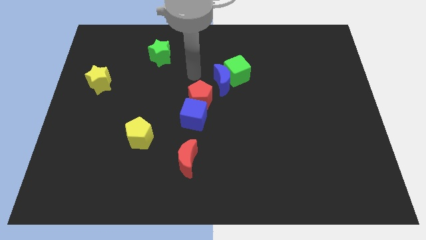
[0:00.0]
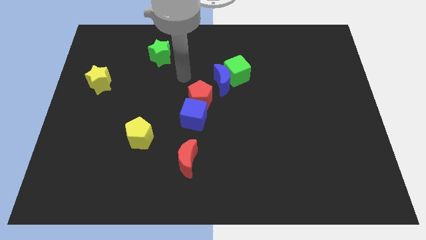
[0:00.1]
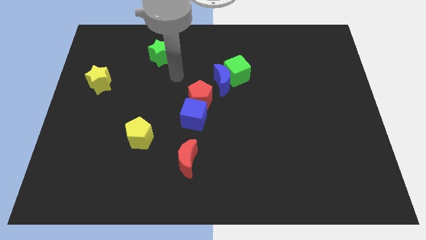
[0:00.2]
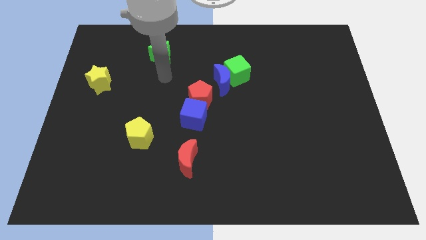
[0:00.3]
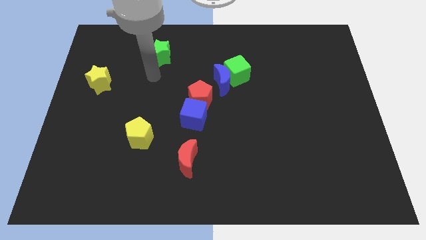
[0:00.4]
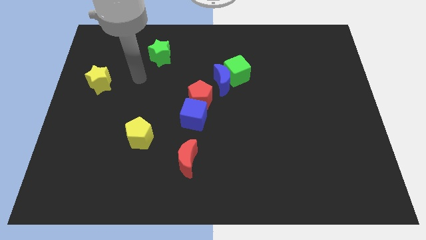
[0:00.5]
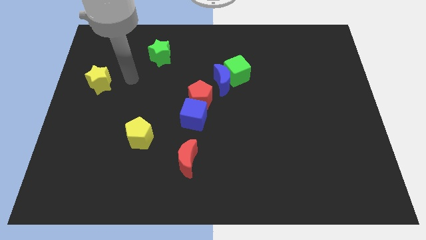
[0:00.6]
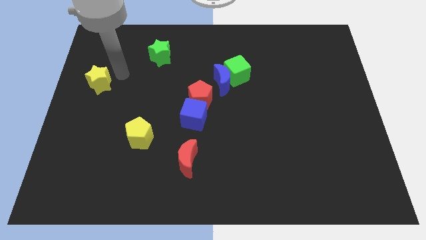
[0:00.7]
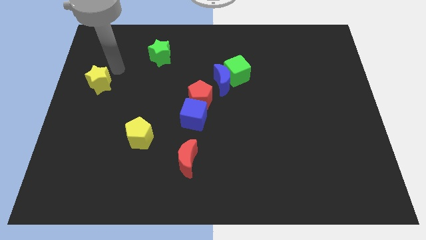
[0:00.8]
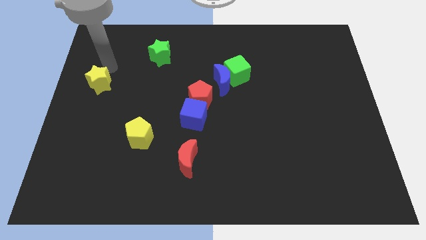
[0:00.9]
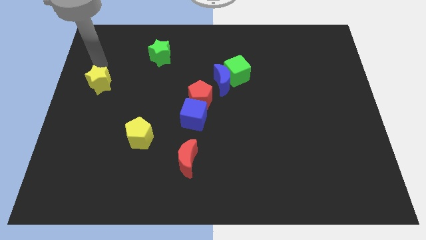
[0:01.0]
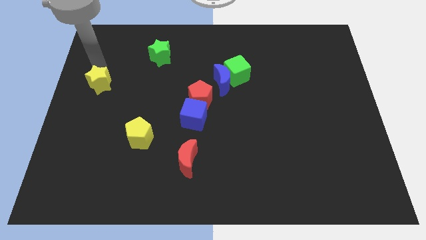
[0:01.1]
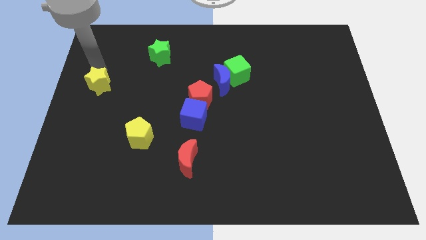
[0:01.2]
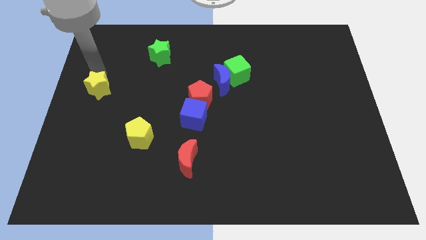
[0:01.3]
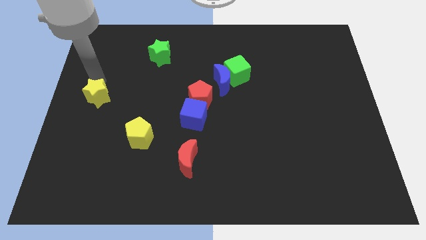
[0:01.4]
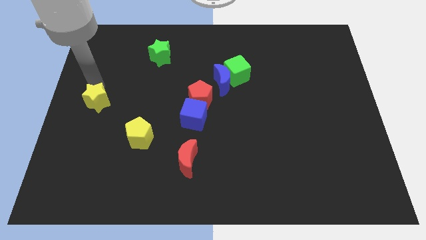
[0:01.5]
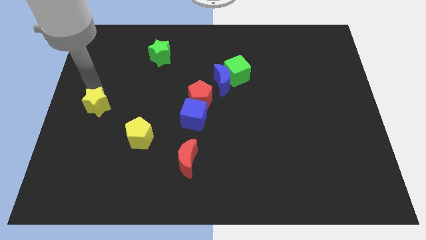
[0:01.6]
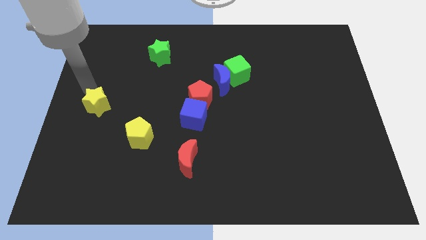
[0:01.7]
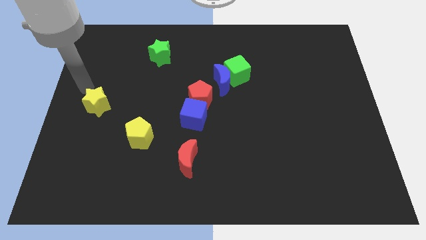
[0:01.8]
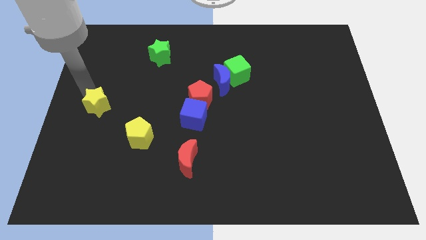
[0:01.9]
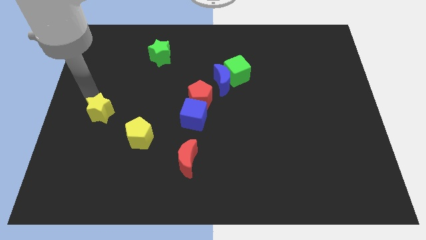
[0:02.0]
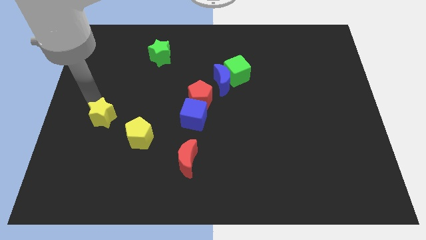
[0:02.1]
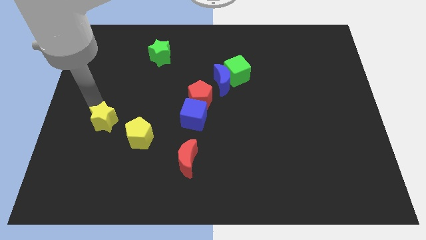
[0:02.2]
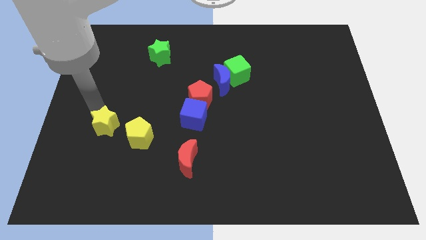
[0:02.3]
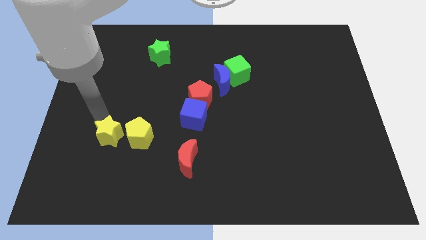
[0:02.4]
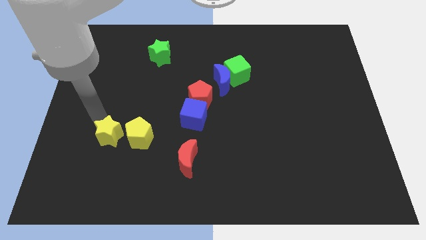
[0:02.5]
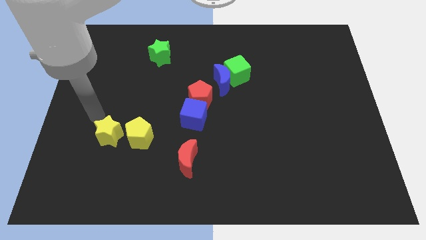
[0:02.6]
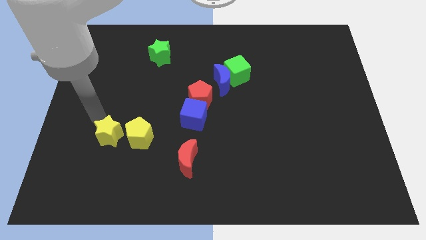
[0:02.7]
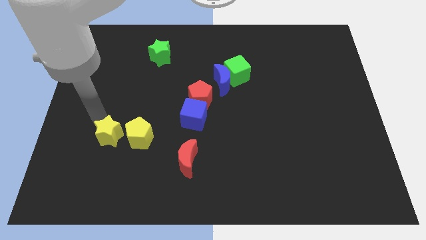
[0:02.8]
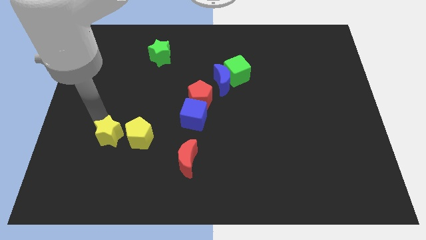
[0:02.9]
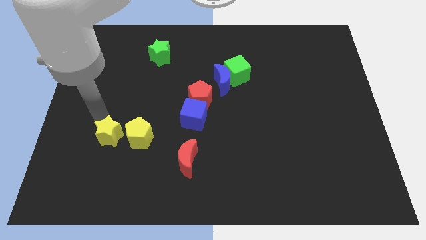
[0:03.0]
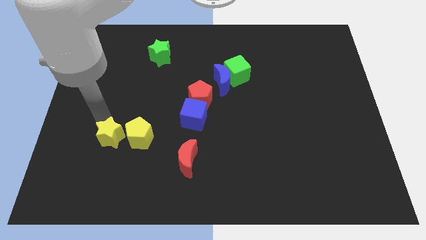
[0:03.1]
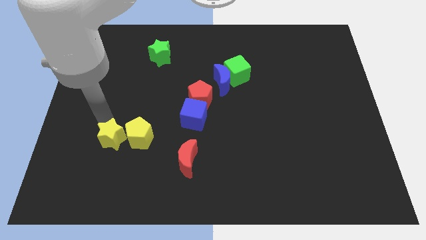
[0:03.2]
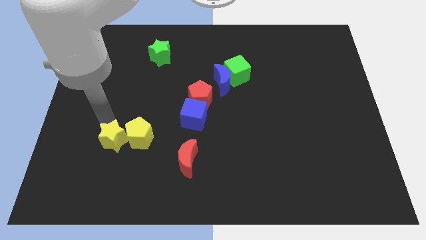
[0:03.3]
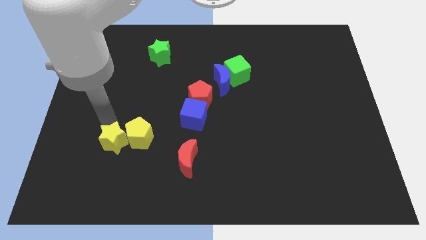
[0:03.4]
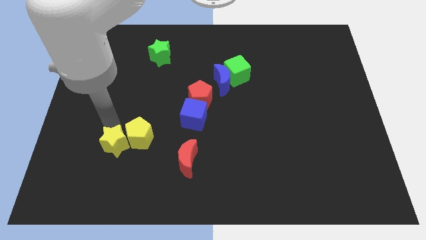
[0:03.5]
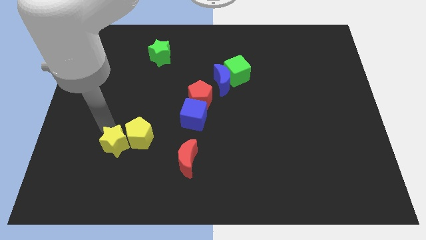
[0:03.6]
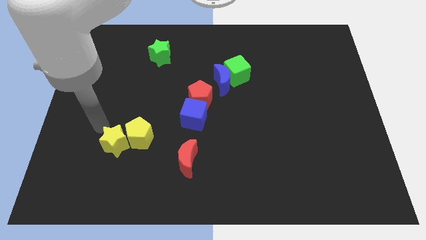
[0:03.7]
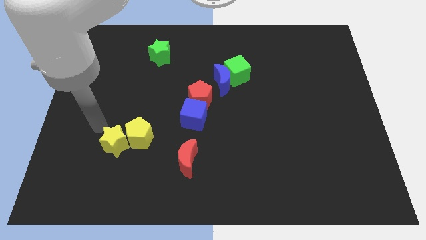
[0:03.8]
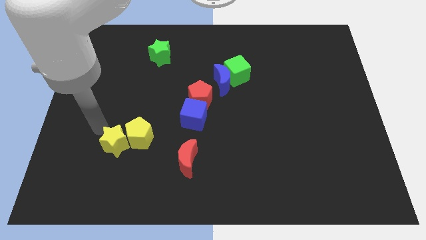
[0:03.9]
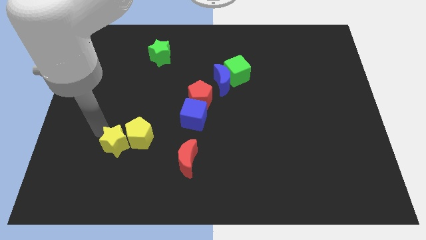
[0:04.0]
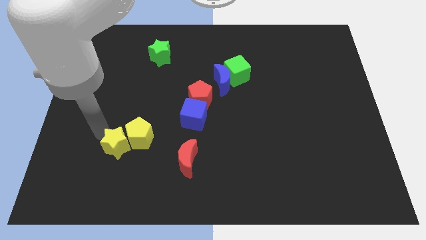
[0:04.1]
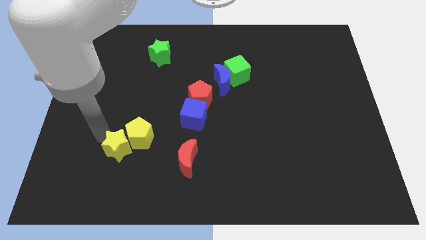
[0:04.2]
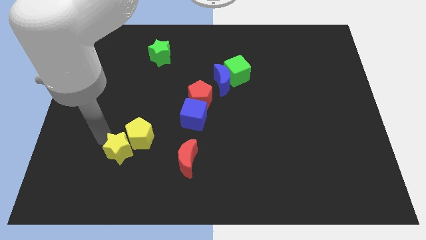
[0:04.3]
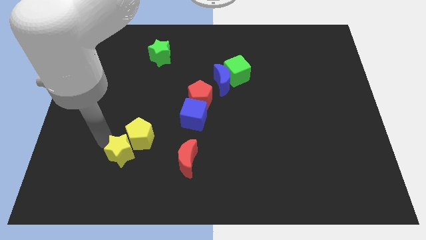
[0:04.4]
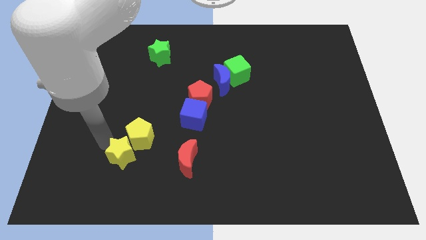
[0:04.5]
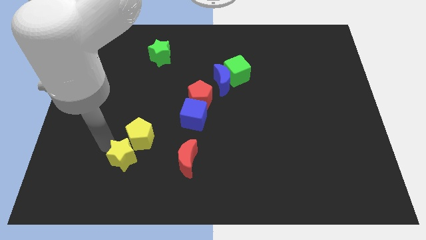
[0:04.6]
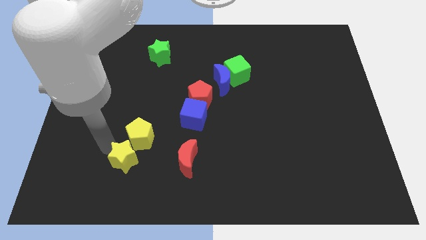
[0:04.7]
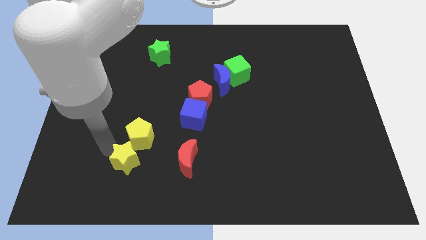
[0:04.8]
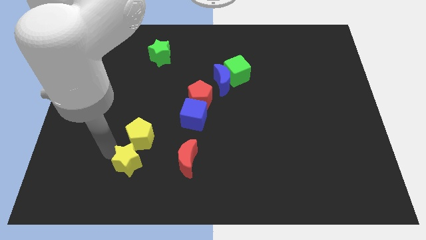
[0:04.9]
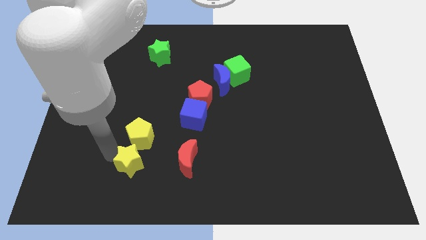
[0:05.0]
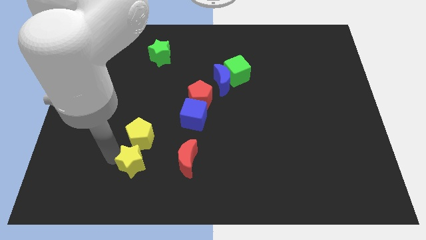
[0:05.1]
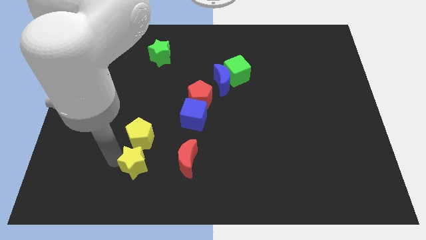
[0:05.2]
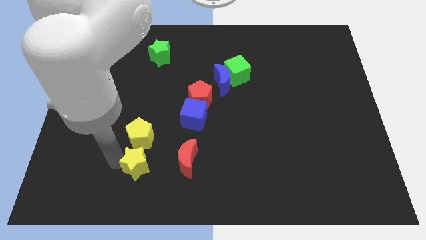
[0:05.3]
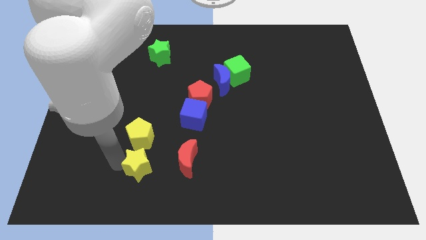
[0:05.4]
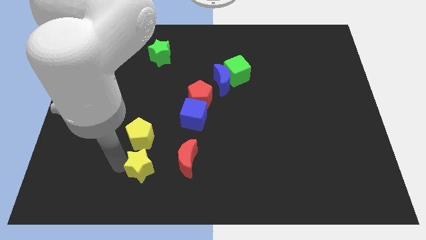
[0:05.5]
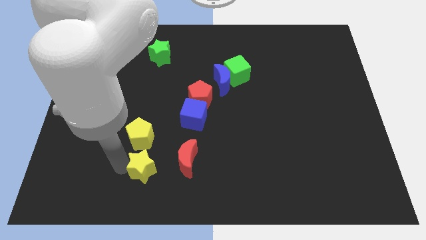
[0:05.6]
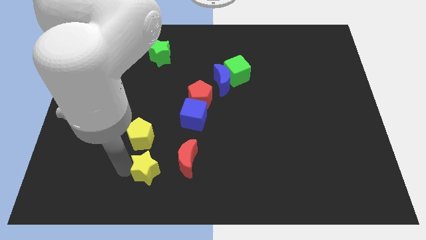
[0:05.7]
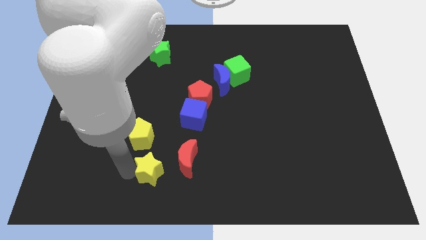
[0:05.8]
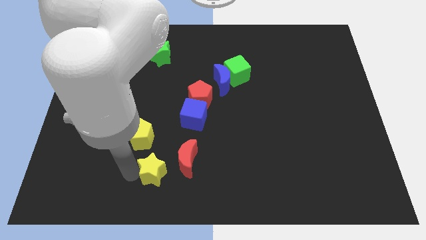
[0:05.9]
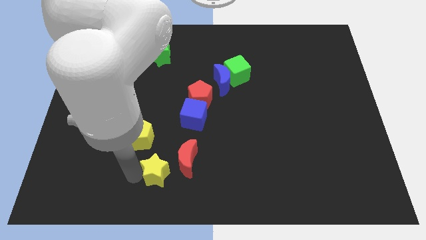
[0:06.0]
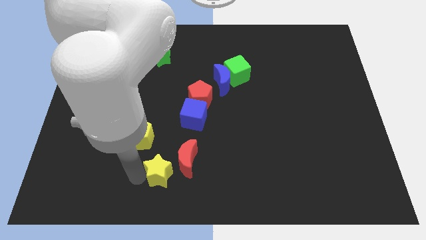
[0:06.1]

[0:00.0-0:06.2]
slide the yellow star to the bottom

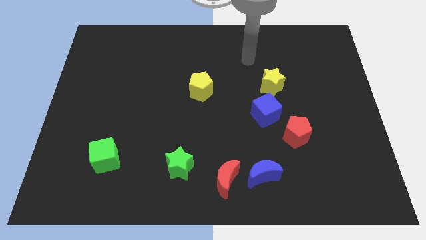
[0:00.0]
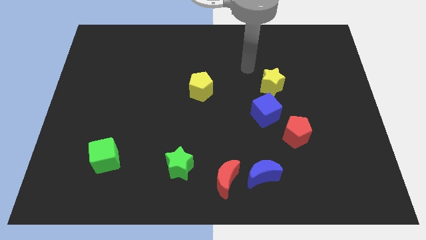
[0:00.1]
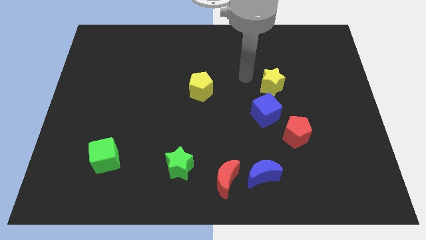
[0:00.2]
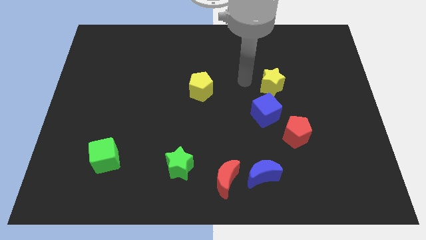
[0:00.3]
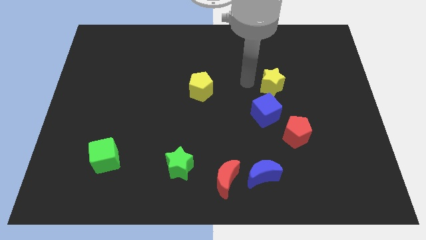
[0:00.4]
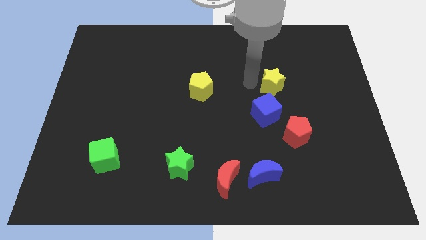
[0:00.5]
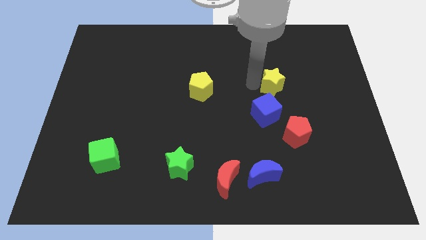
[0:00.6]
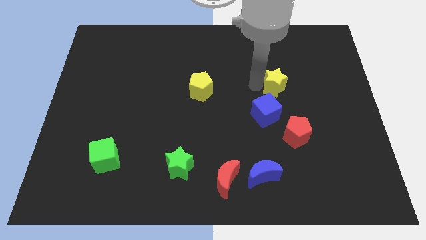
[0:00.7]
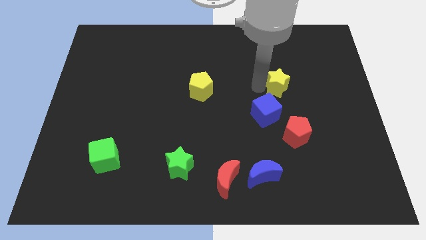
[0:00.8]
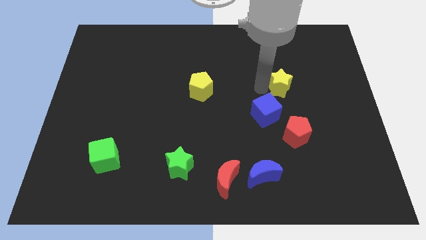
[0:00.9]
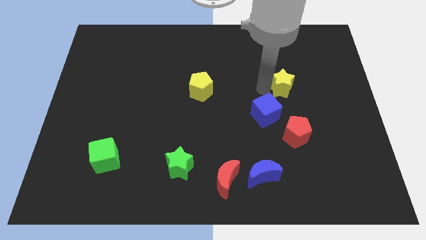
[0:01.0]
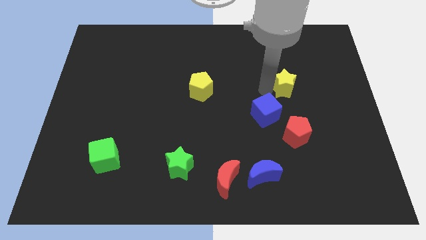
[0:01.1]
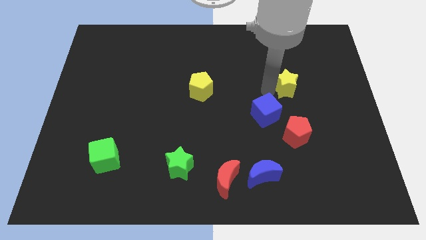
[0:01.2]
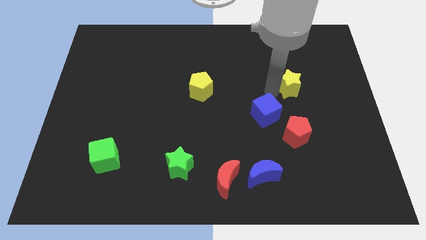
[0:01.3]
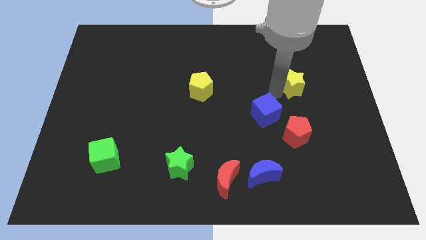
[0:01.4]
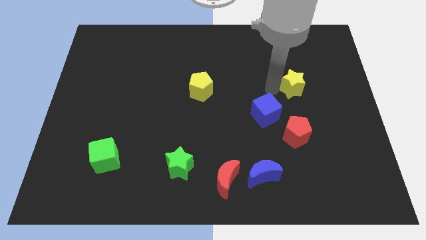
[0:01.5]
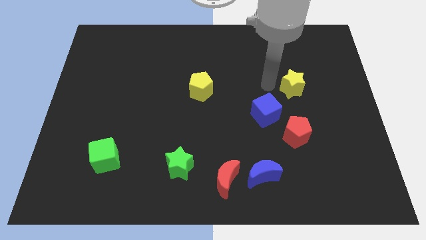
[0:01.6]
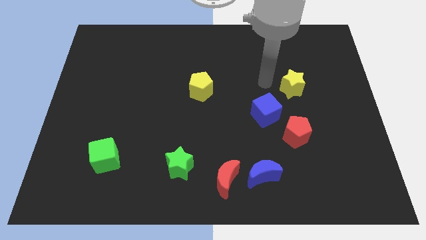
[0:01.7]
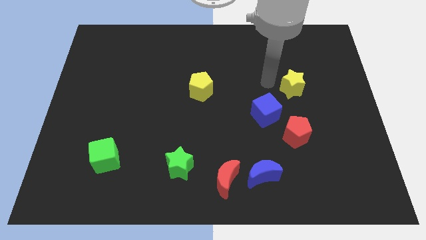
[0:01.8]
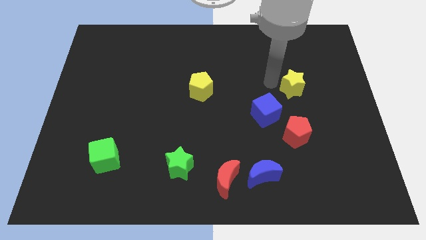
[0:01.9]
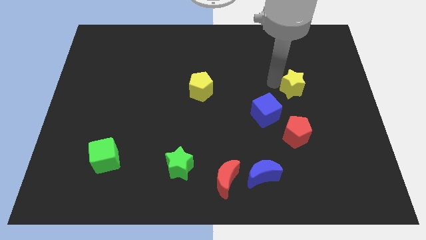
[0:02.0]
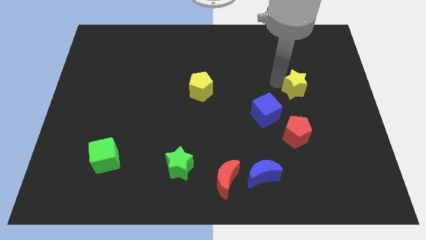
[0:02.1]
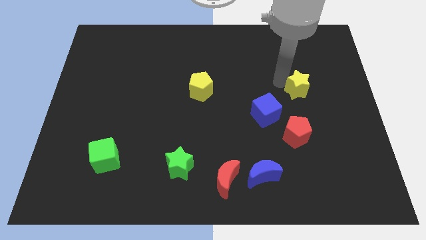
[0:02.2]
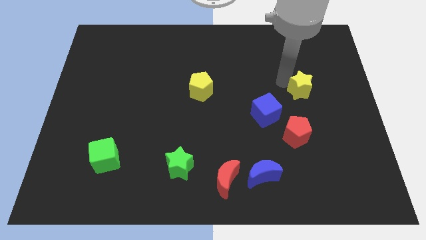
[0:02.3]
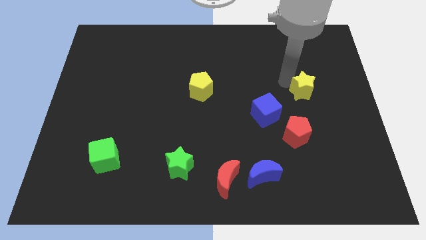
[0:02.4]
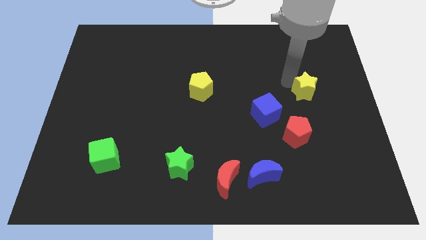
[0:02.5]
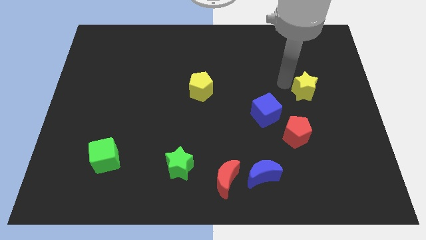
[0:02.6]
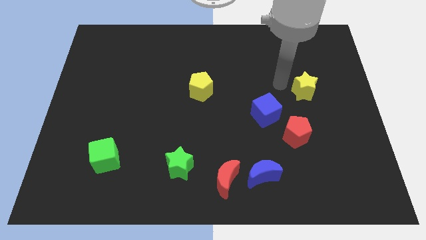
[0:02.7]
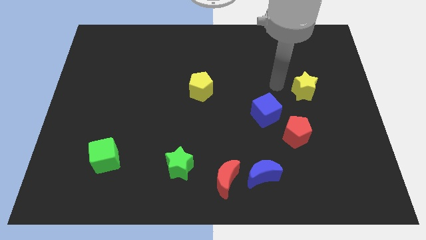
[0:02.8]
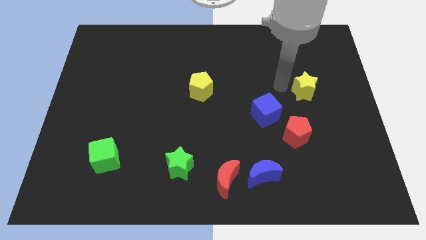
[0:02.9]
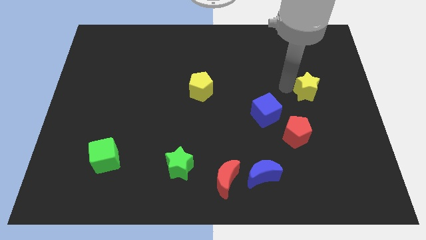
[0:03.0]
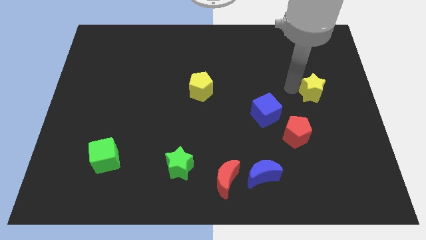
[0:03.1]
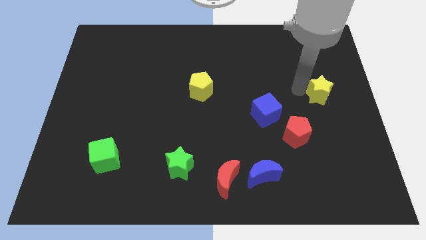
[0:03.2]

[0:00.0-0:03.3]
push the yellow star to the right side of the board
